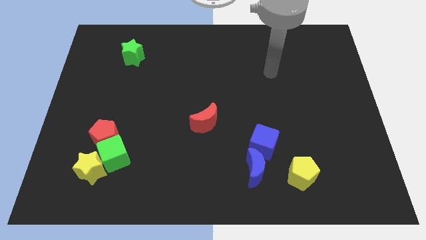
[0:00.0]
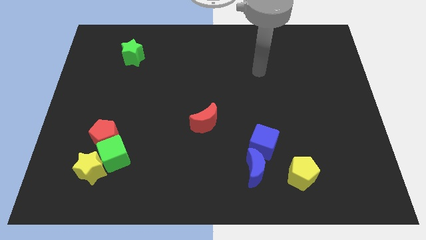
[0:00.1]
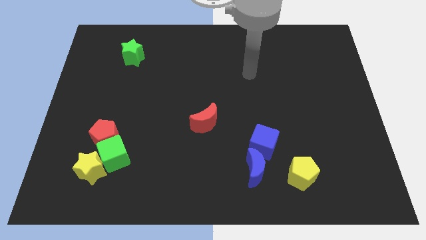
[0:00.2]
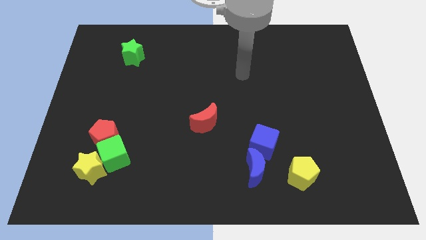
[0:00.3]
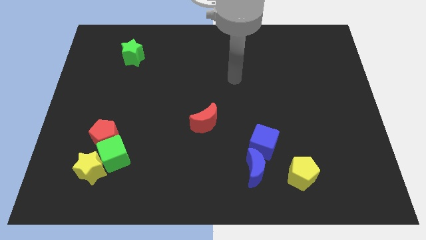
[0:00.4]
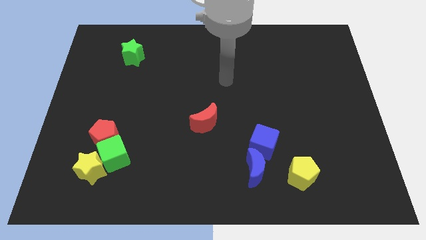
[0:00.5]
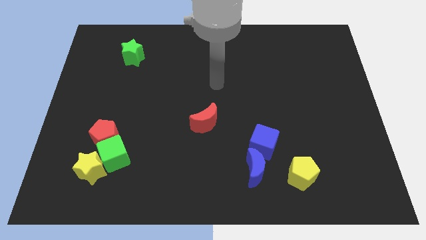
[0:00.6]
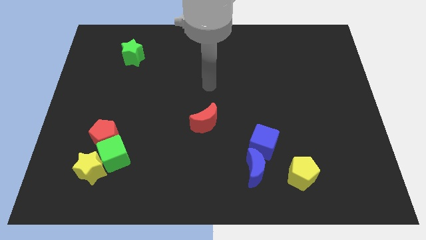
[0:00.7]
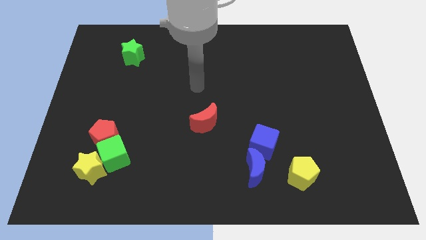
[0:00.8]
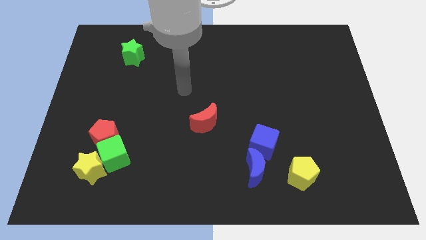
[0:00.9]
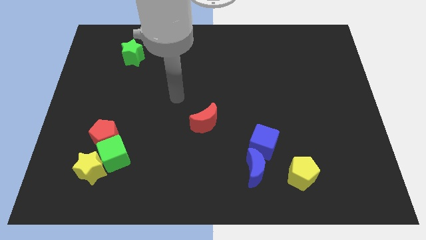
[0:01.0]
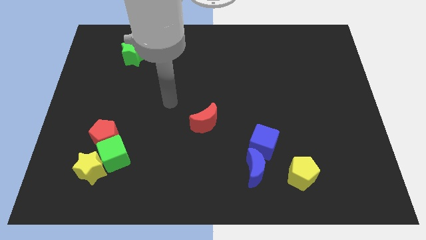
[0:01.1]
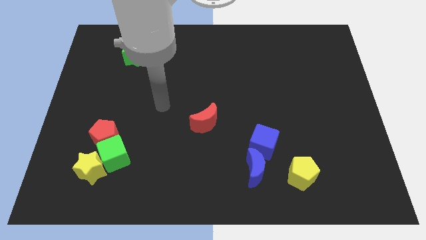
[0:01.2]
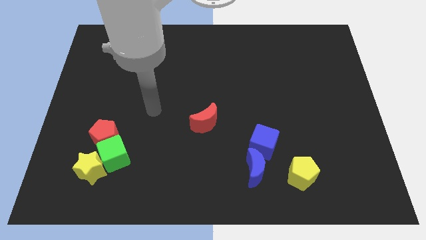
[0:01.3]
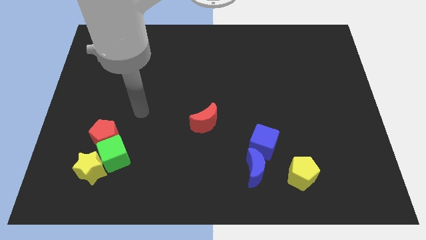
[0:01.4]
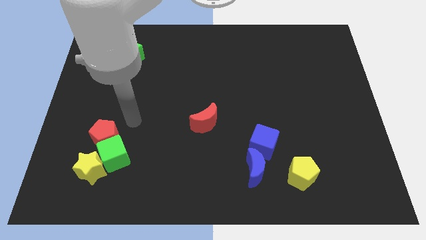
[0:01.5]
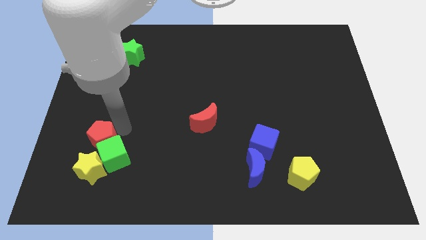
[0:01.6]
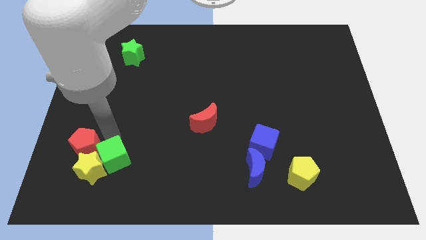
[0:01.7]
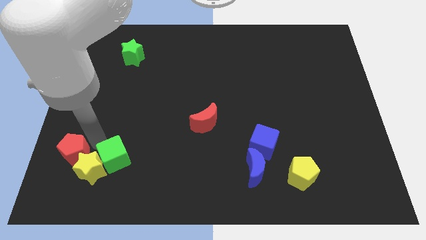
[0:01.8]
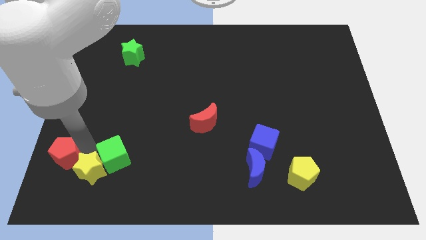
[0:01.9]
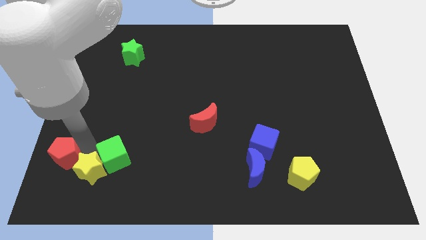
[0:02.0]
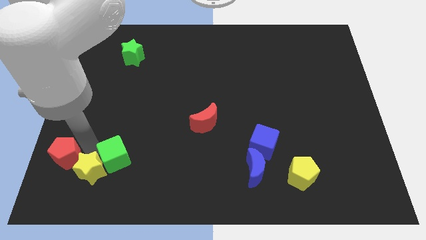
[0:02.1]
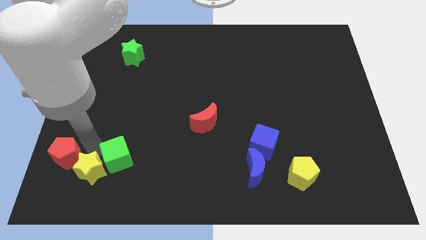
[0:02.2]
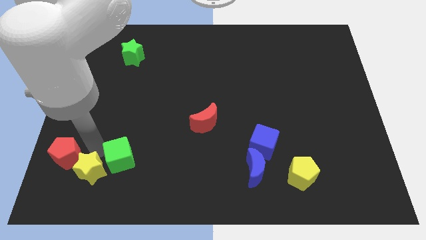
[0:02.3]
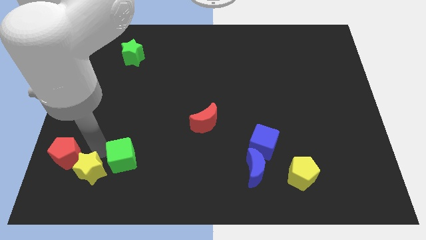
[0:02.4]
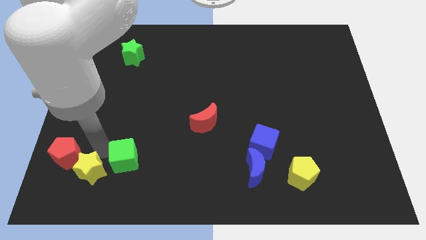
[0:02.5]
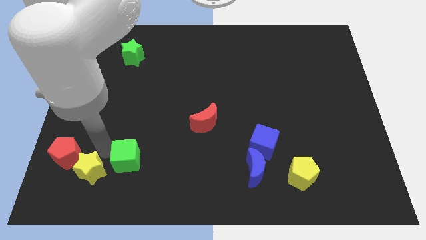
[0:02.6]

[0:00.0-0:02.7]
separate the green cube from the yellow star and red pentagon

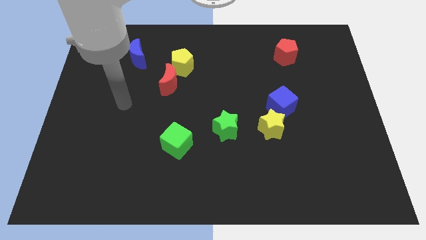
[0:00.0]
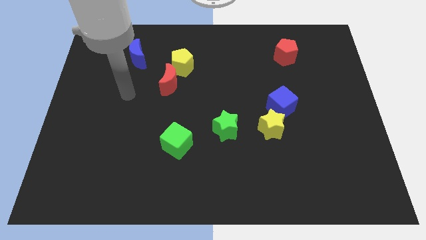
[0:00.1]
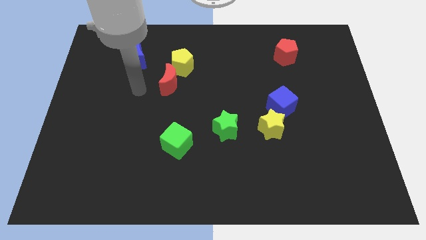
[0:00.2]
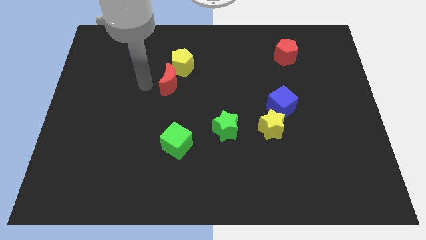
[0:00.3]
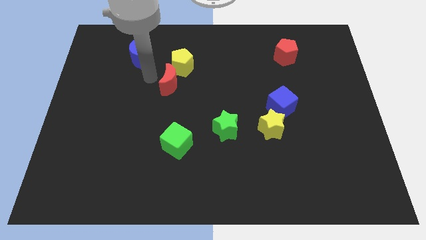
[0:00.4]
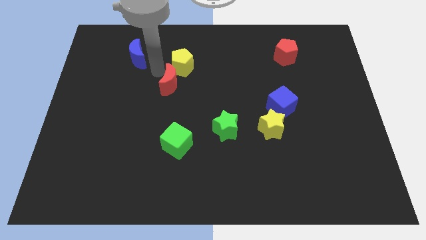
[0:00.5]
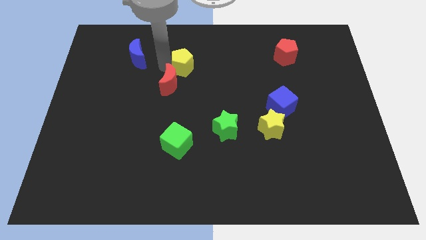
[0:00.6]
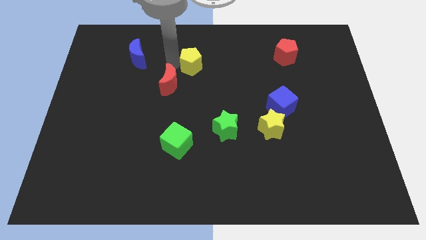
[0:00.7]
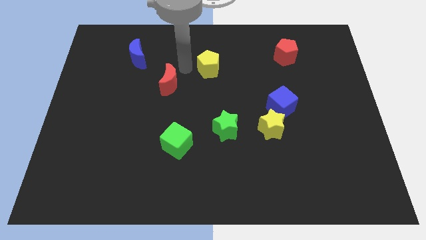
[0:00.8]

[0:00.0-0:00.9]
move the red moon away from the yellow pentagon

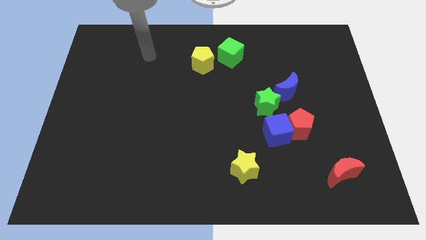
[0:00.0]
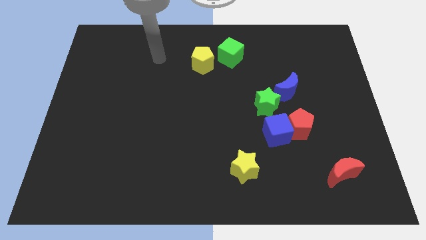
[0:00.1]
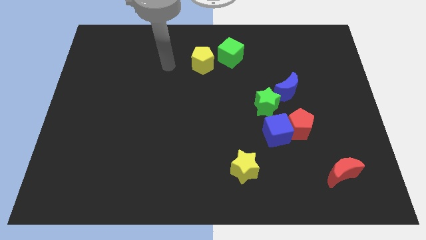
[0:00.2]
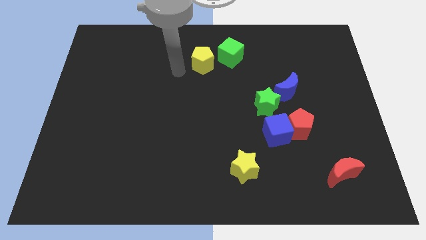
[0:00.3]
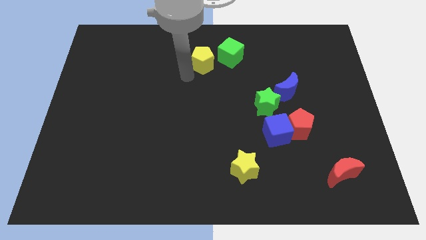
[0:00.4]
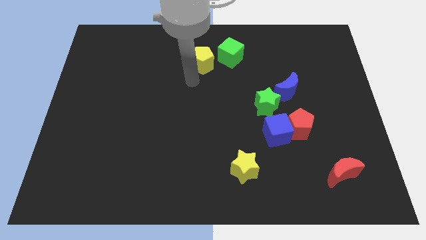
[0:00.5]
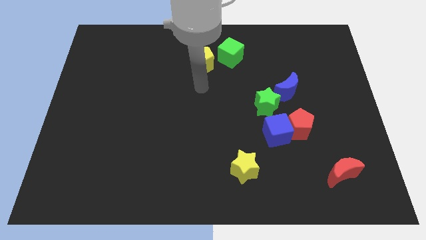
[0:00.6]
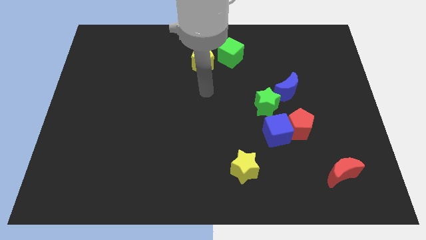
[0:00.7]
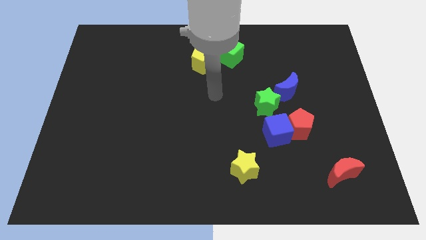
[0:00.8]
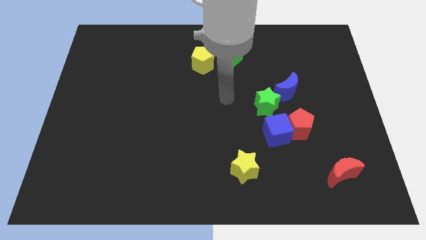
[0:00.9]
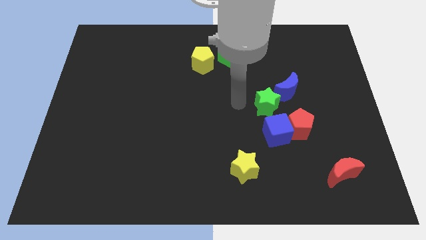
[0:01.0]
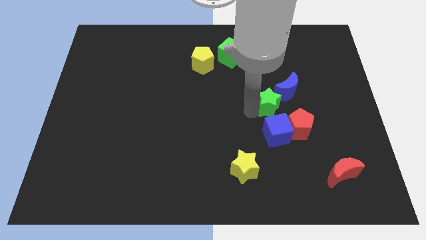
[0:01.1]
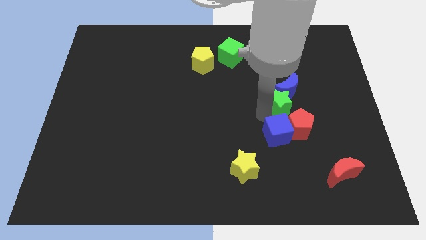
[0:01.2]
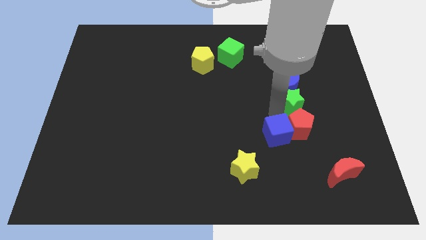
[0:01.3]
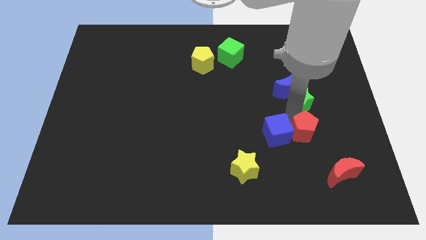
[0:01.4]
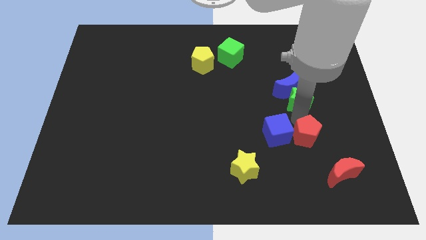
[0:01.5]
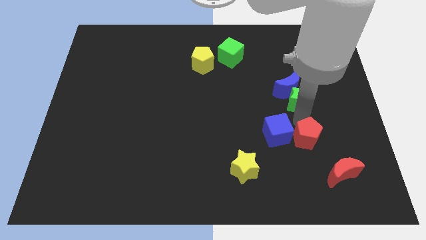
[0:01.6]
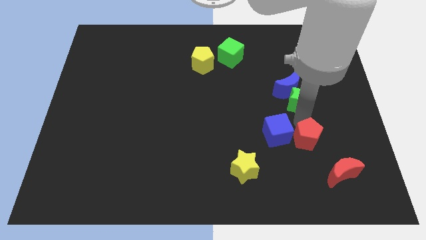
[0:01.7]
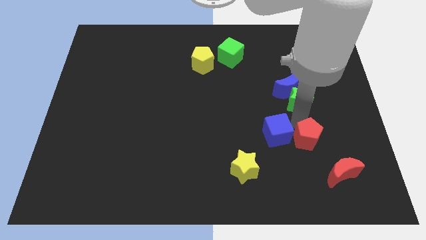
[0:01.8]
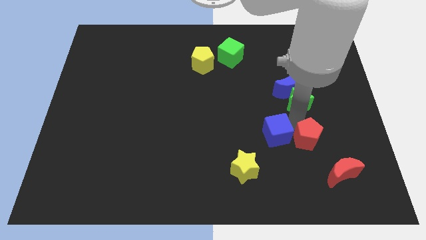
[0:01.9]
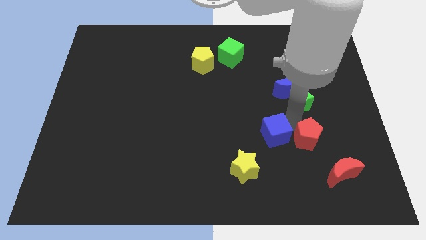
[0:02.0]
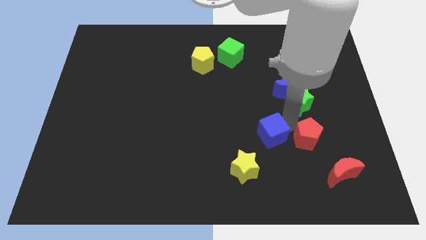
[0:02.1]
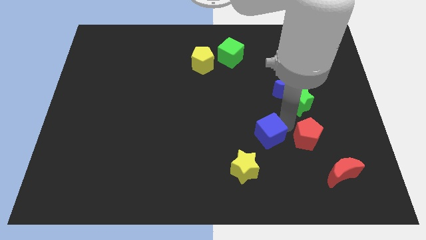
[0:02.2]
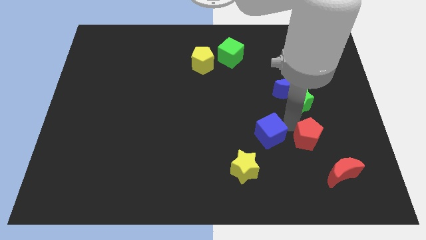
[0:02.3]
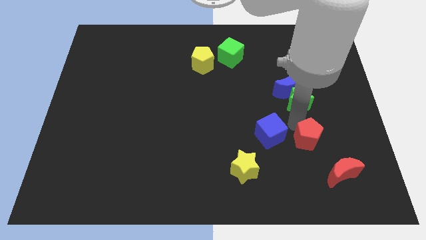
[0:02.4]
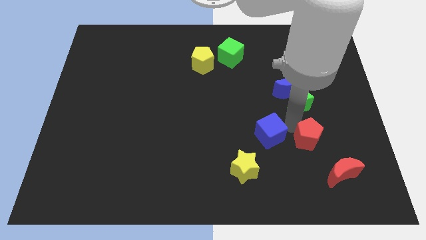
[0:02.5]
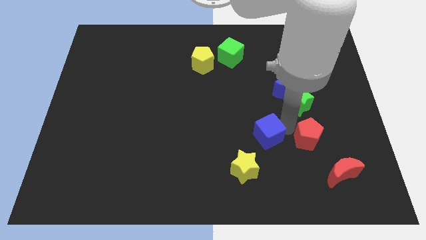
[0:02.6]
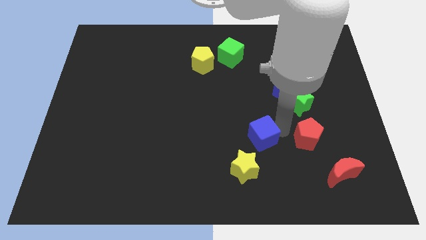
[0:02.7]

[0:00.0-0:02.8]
pull the blue cube apart from the red pentagon and green star

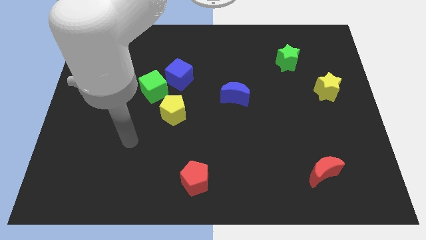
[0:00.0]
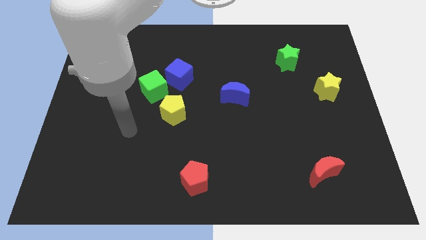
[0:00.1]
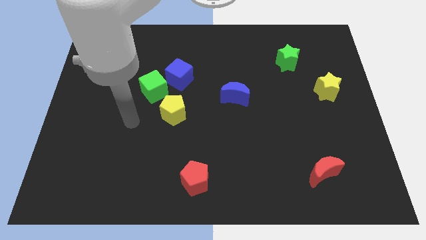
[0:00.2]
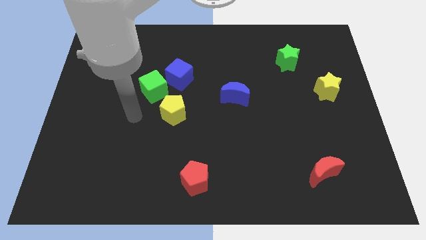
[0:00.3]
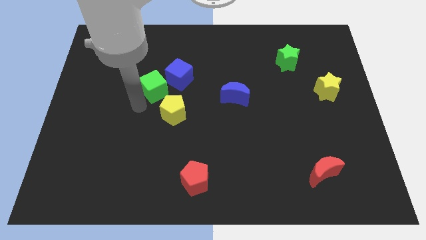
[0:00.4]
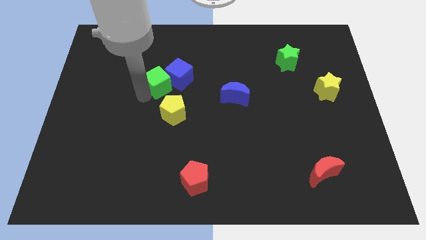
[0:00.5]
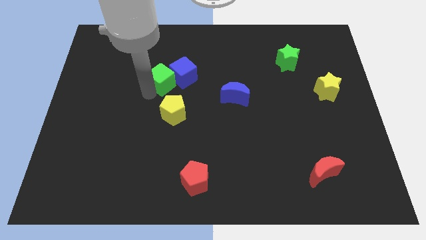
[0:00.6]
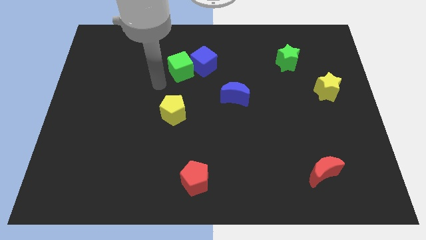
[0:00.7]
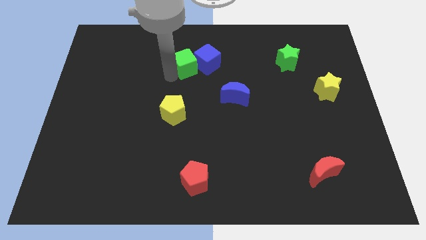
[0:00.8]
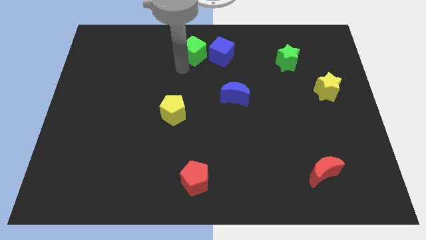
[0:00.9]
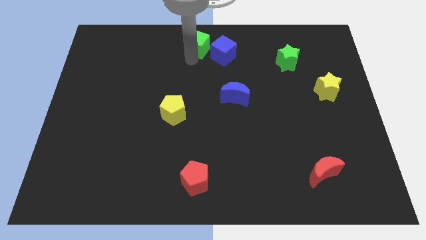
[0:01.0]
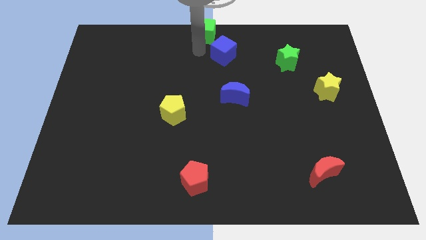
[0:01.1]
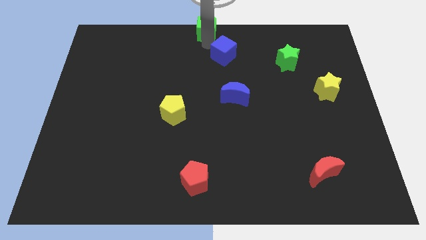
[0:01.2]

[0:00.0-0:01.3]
separate the blue cube from the green cube

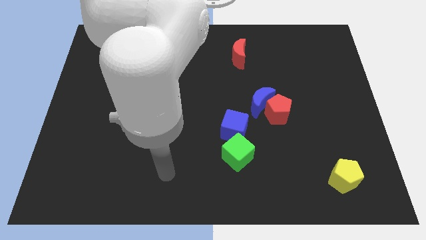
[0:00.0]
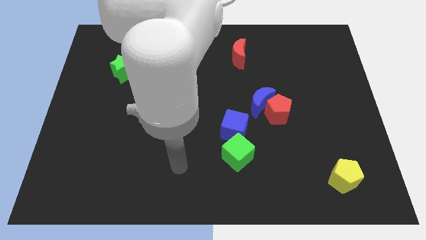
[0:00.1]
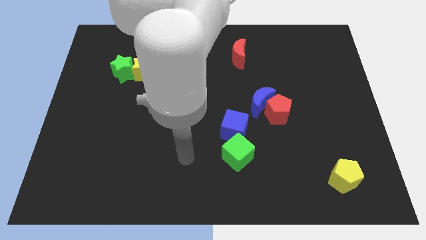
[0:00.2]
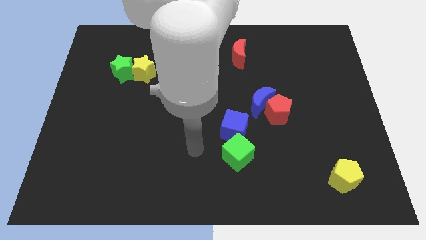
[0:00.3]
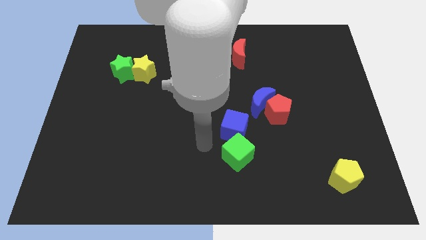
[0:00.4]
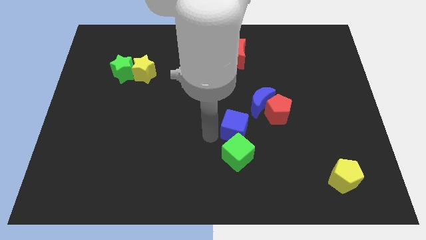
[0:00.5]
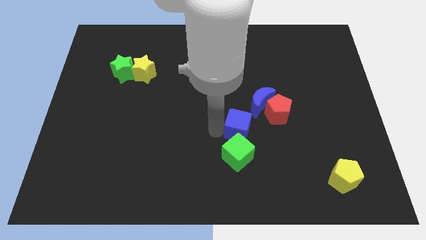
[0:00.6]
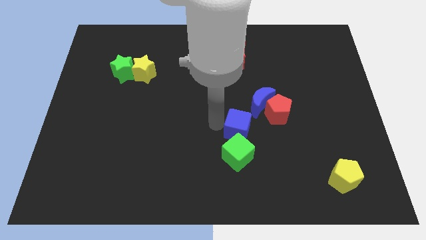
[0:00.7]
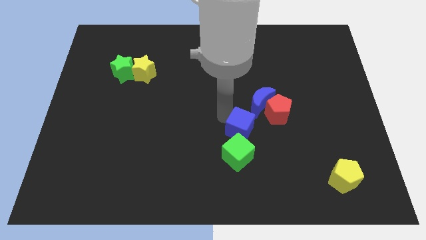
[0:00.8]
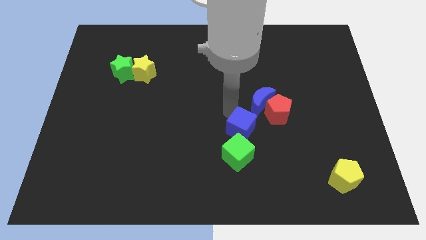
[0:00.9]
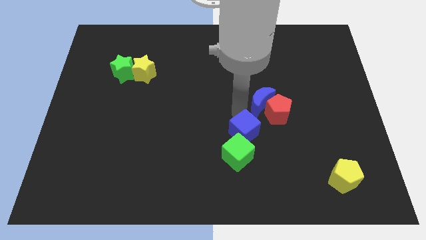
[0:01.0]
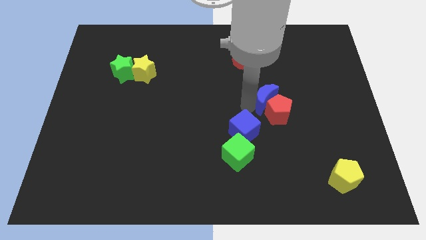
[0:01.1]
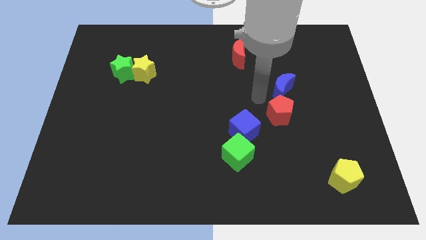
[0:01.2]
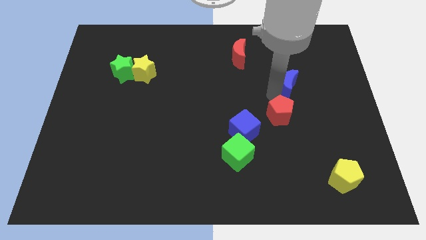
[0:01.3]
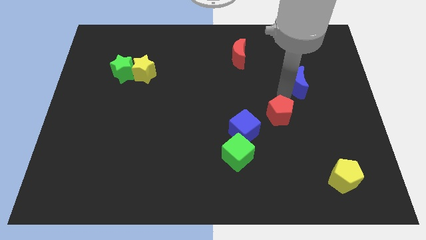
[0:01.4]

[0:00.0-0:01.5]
separate the red pentagon from the blue moon

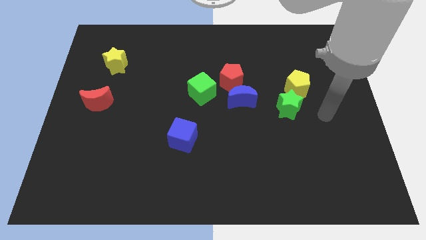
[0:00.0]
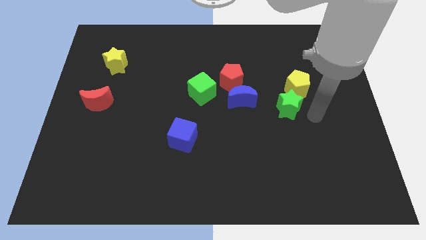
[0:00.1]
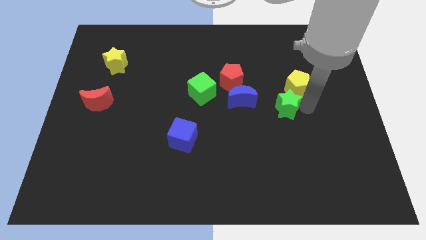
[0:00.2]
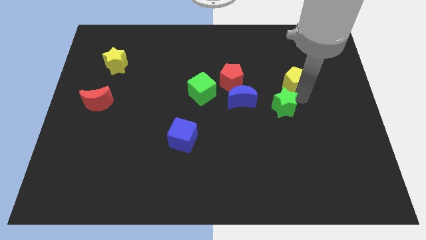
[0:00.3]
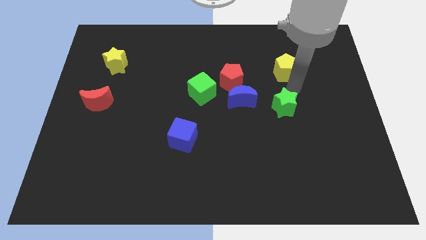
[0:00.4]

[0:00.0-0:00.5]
separate the green star from the yellow pentagon
